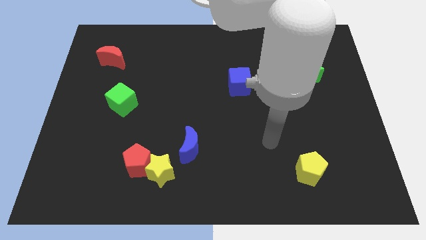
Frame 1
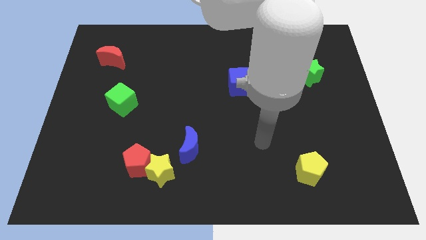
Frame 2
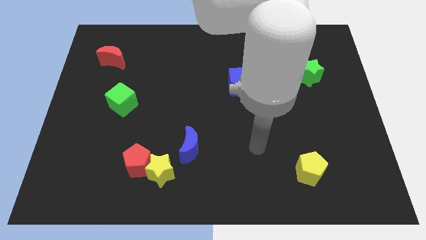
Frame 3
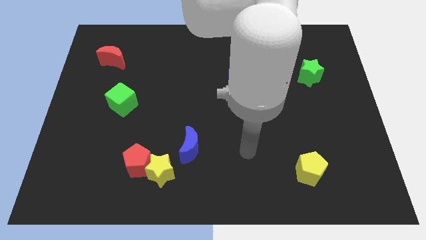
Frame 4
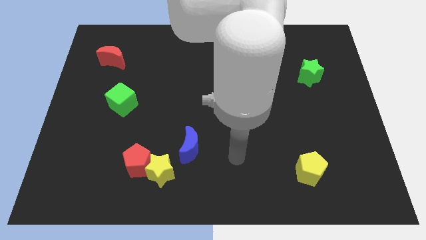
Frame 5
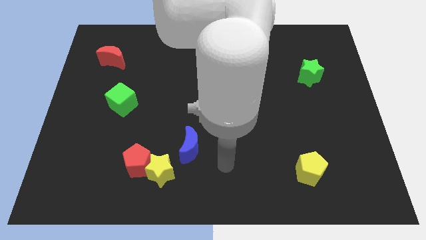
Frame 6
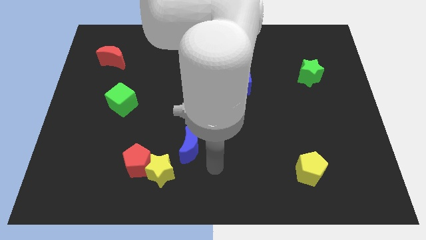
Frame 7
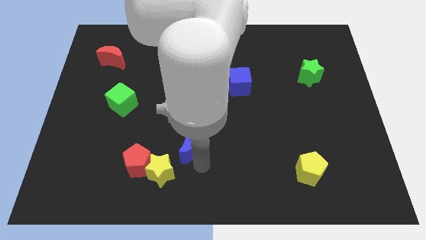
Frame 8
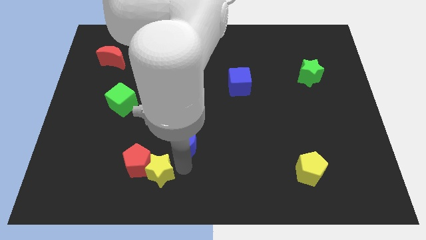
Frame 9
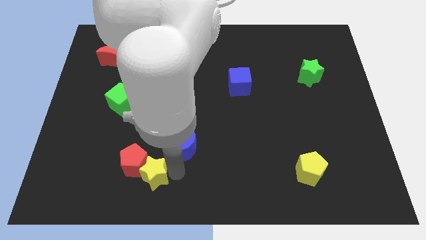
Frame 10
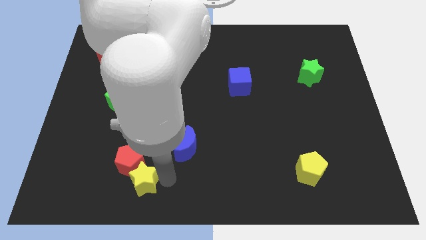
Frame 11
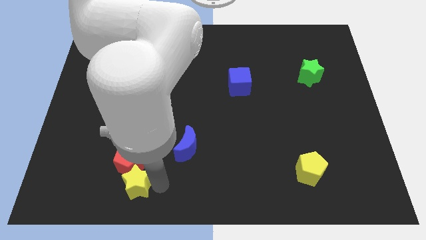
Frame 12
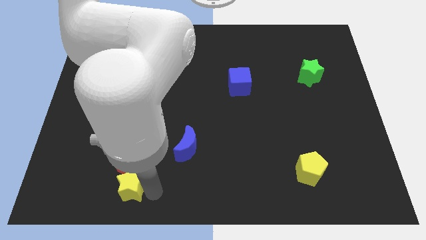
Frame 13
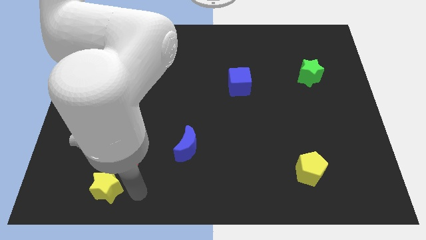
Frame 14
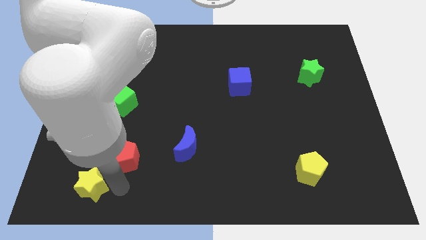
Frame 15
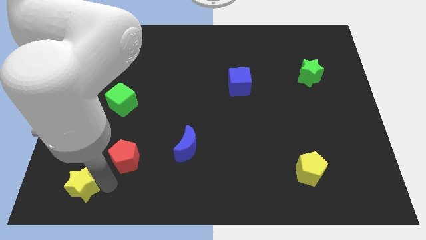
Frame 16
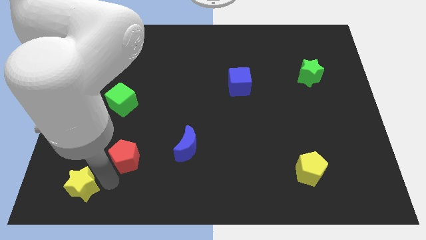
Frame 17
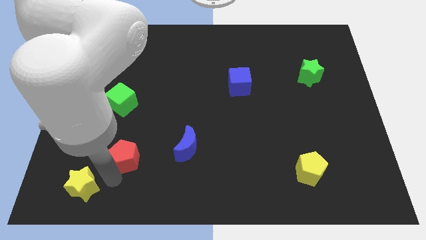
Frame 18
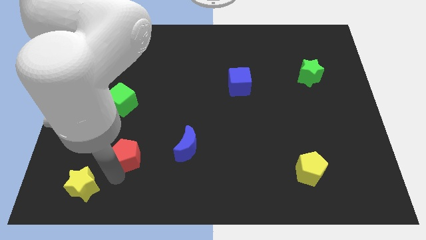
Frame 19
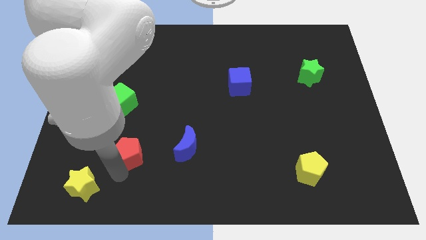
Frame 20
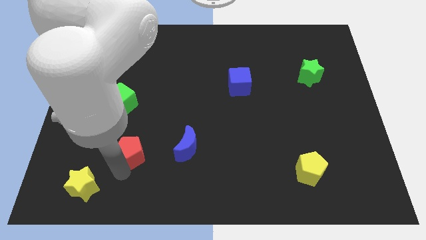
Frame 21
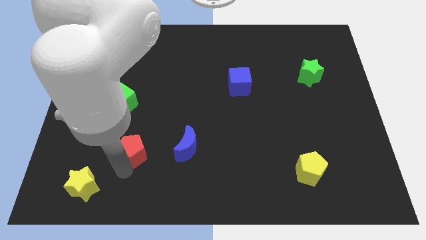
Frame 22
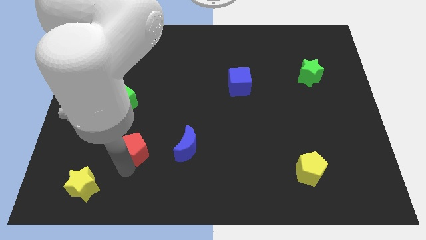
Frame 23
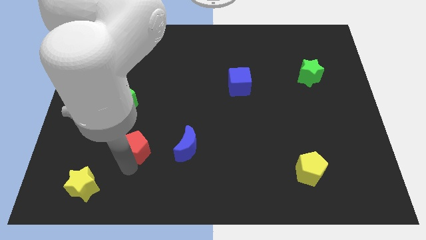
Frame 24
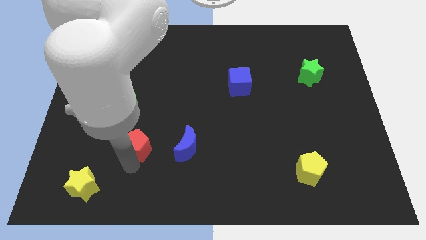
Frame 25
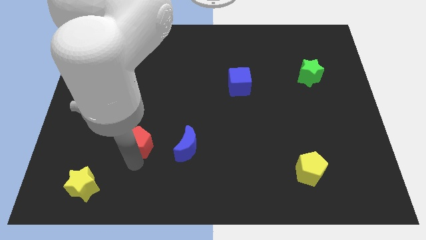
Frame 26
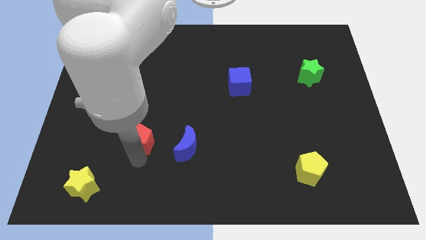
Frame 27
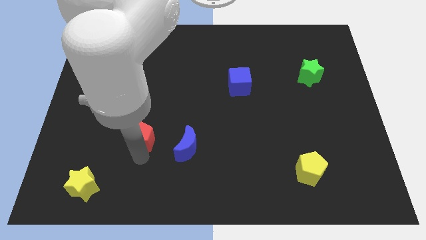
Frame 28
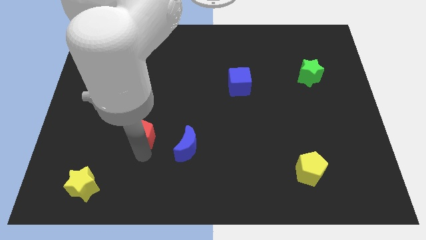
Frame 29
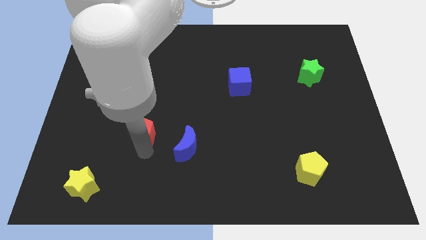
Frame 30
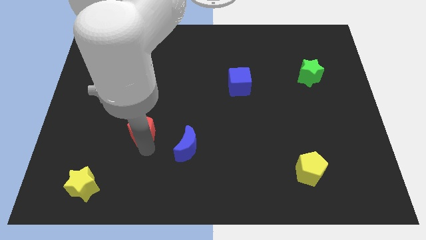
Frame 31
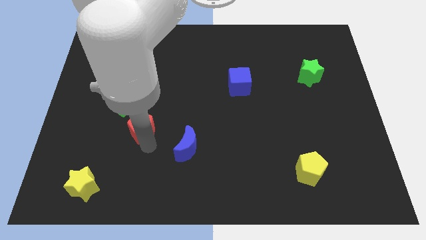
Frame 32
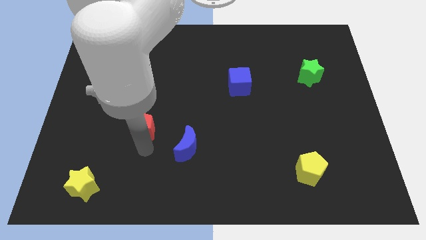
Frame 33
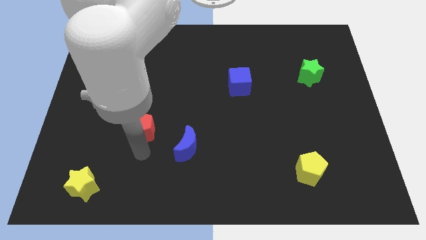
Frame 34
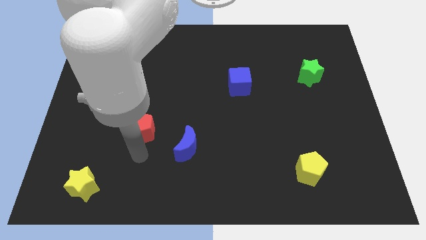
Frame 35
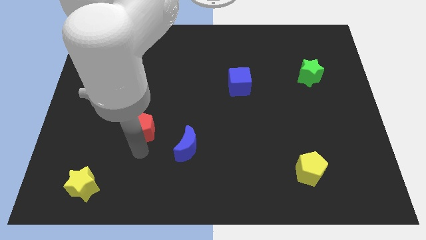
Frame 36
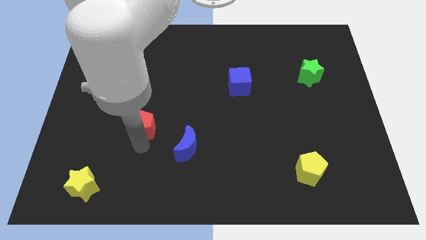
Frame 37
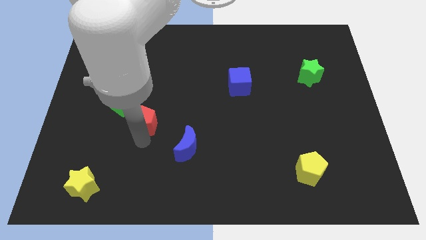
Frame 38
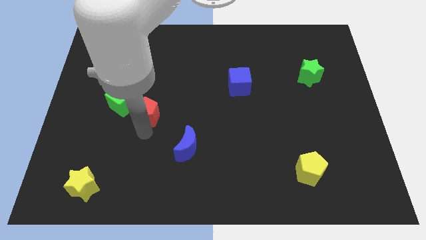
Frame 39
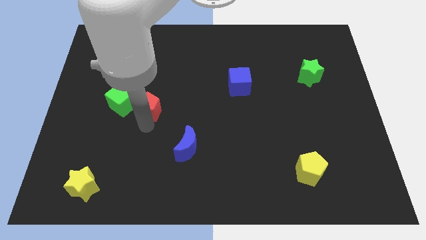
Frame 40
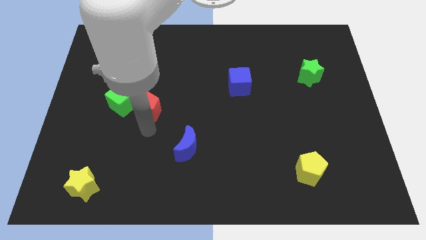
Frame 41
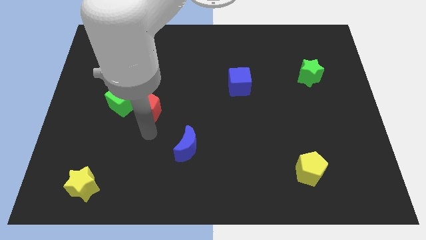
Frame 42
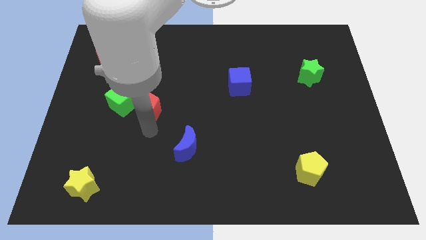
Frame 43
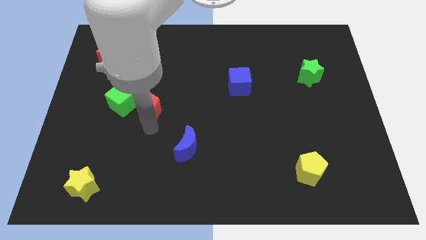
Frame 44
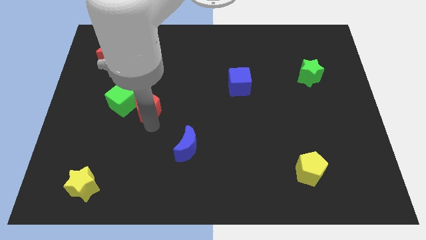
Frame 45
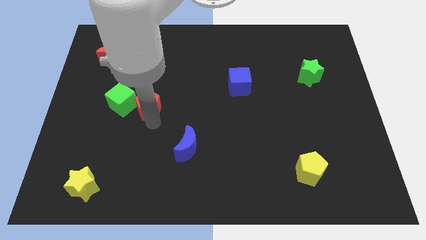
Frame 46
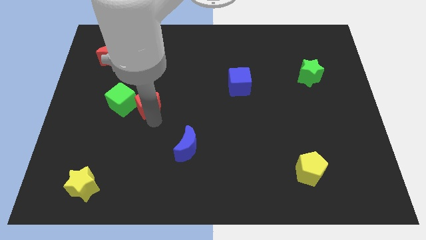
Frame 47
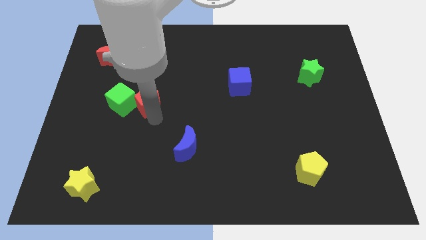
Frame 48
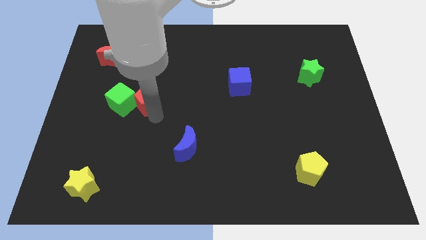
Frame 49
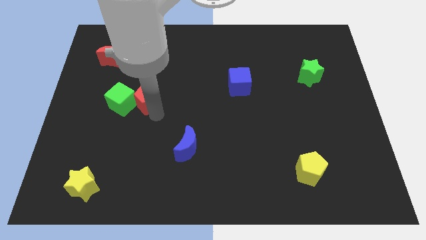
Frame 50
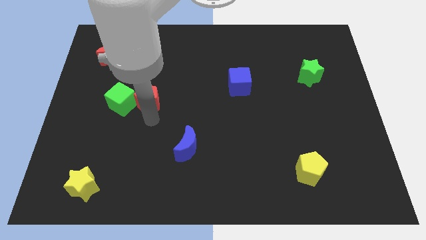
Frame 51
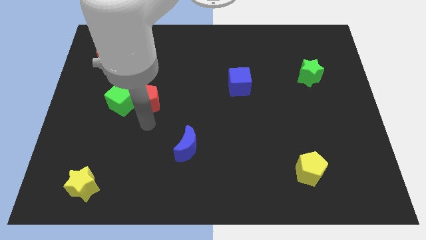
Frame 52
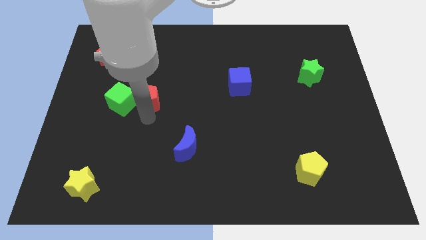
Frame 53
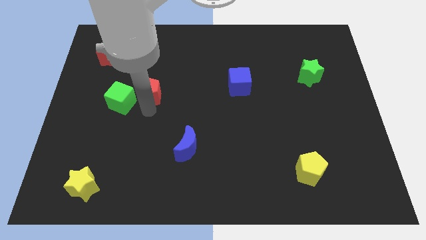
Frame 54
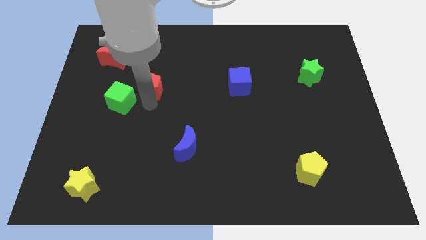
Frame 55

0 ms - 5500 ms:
slide the red pentagon upwards

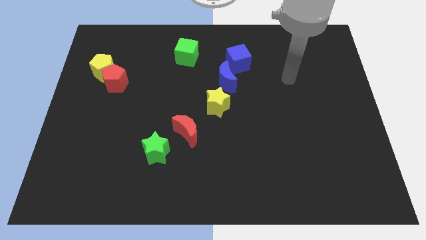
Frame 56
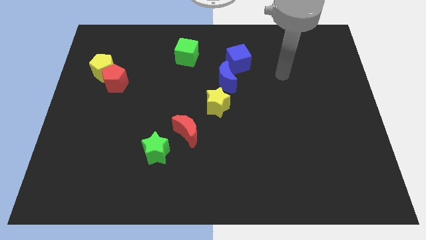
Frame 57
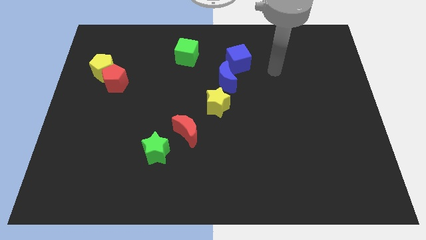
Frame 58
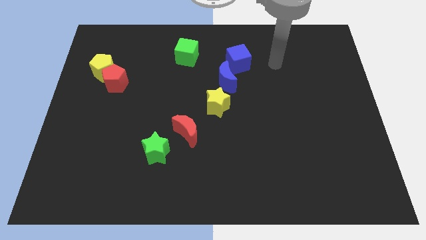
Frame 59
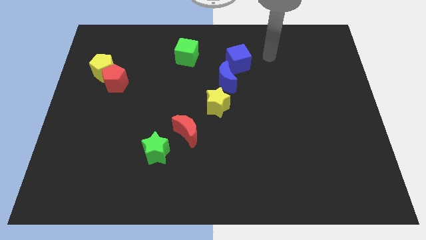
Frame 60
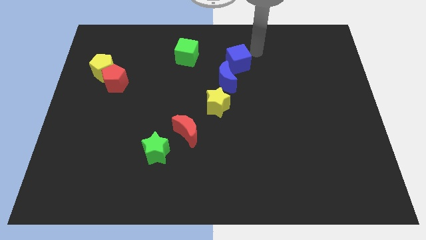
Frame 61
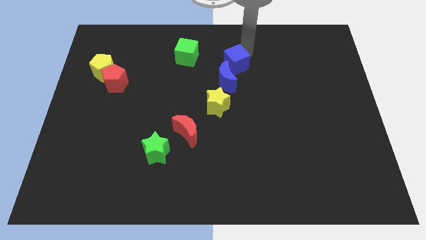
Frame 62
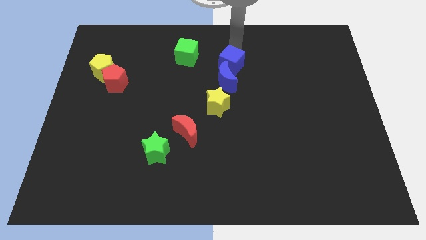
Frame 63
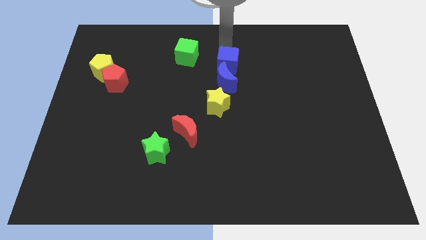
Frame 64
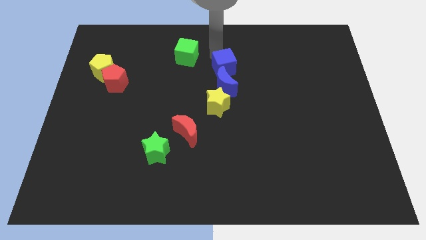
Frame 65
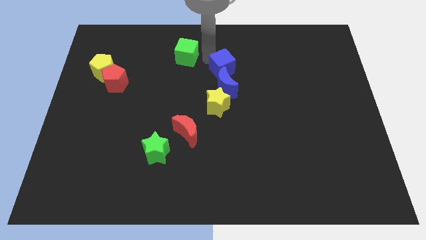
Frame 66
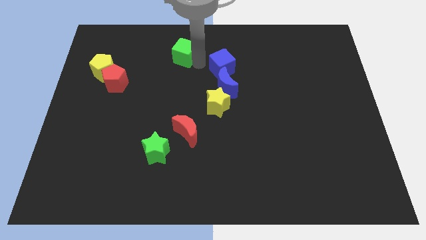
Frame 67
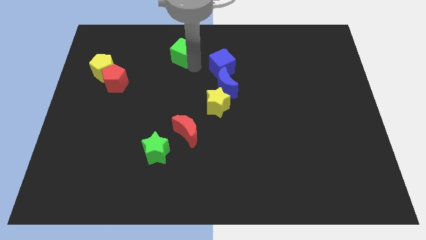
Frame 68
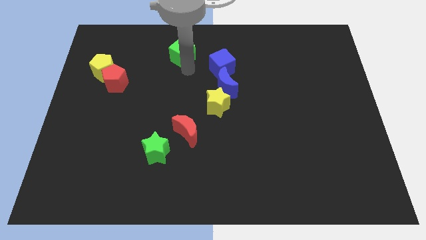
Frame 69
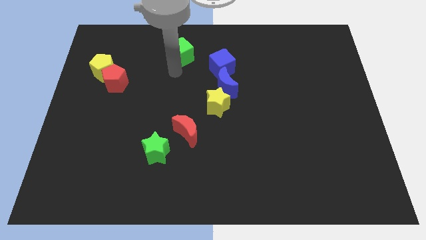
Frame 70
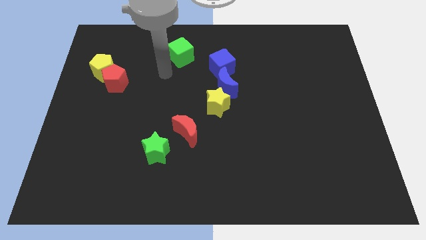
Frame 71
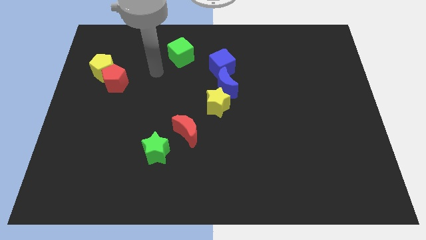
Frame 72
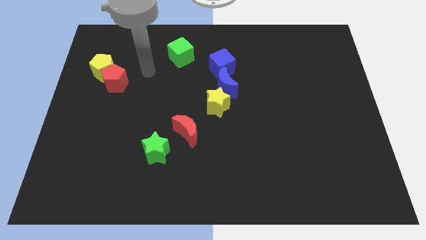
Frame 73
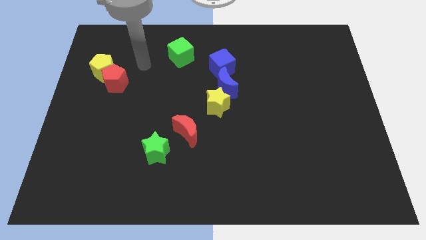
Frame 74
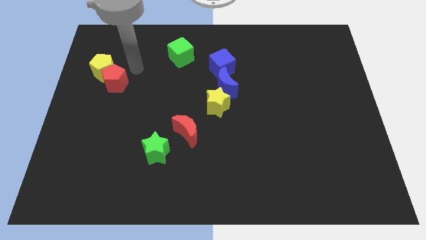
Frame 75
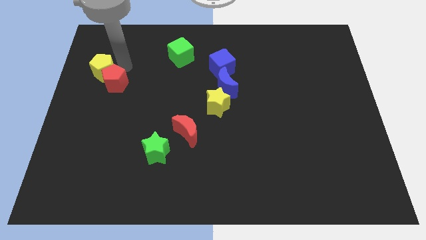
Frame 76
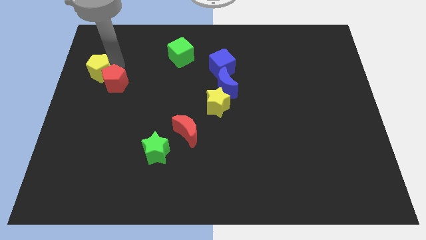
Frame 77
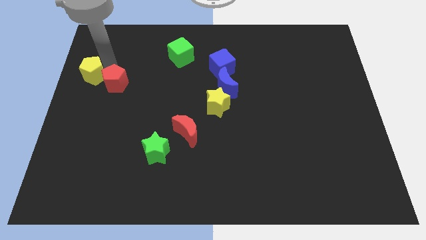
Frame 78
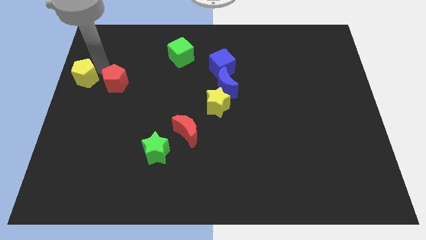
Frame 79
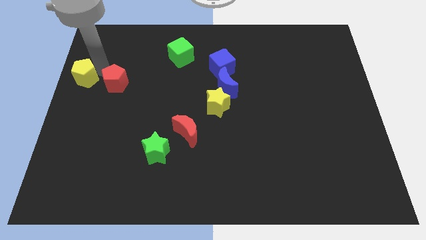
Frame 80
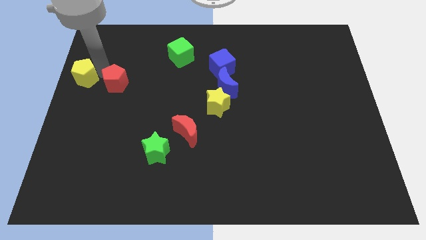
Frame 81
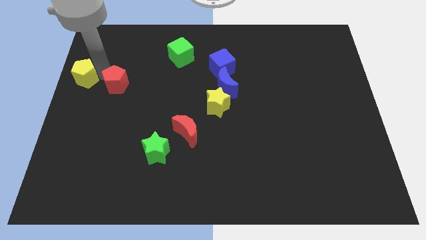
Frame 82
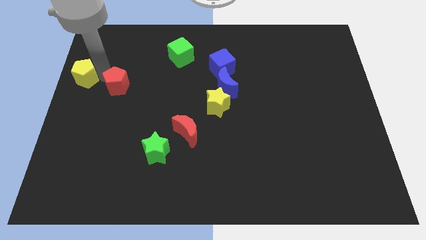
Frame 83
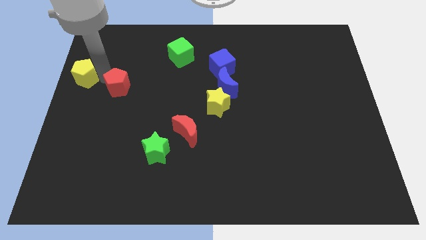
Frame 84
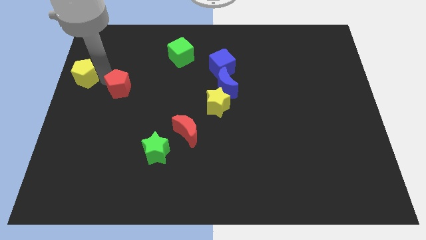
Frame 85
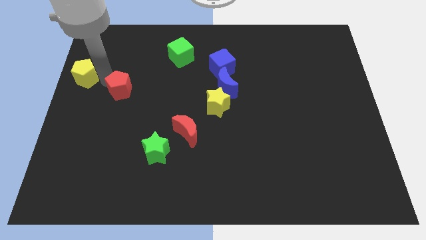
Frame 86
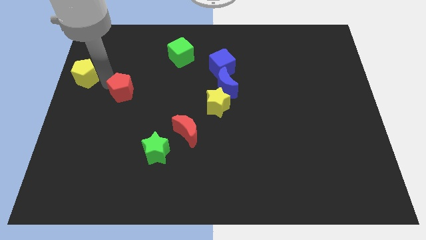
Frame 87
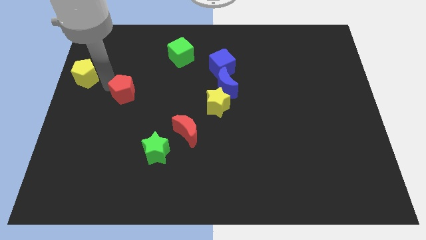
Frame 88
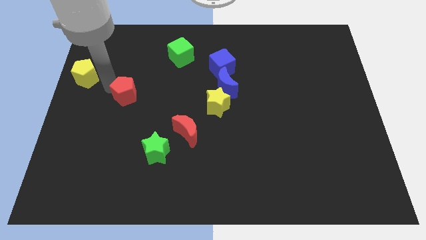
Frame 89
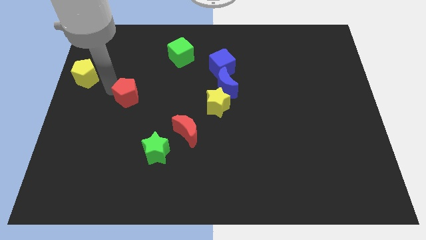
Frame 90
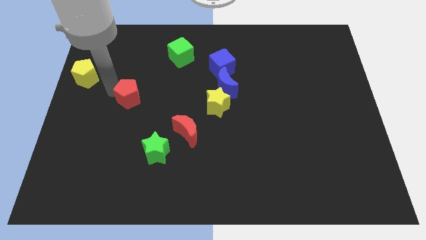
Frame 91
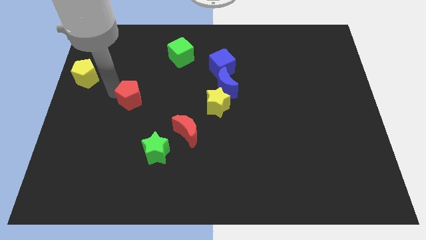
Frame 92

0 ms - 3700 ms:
slide the red pentagon a little bit downwards and then right
